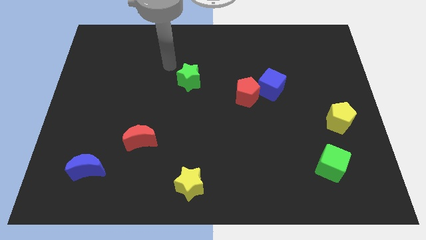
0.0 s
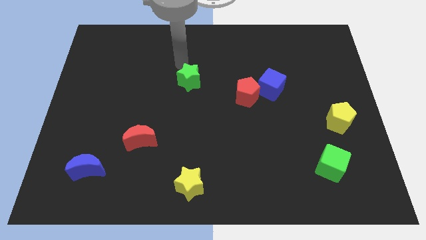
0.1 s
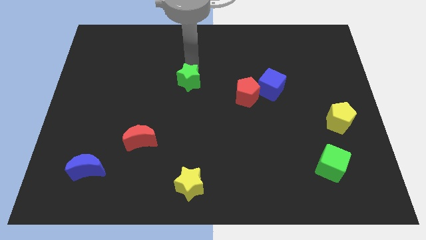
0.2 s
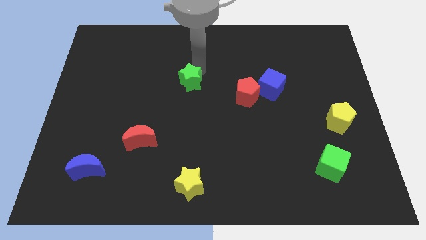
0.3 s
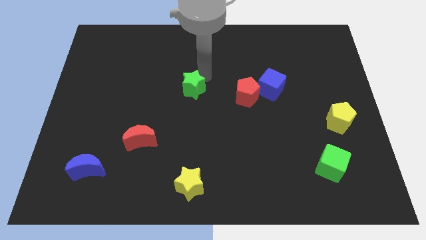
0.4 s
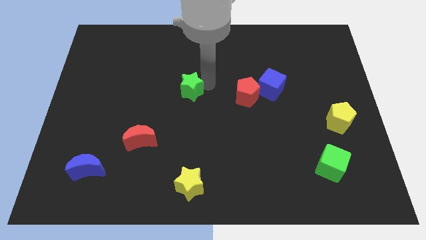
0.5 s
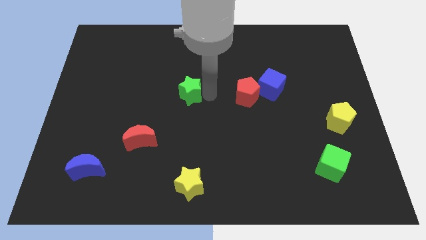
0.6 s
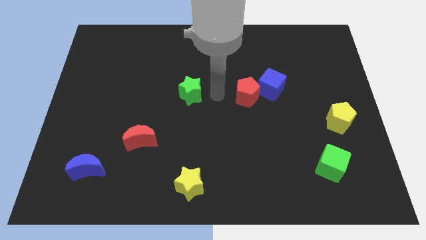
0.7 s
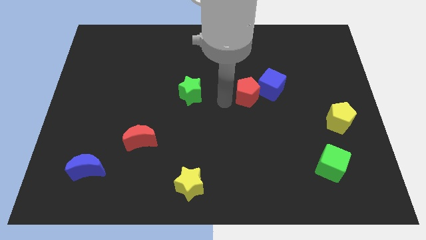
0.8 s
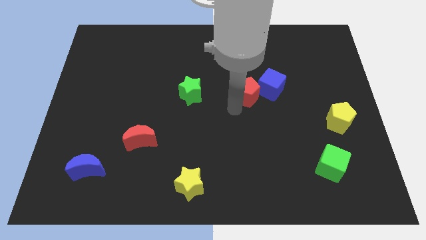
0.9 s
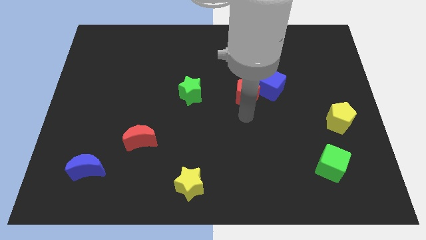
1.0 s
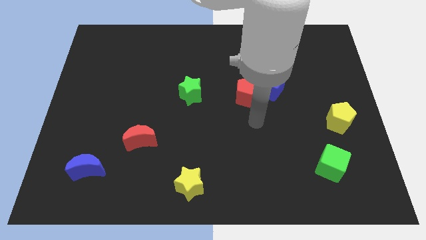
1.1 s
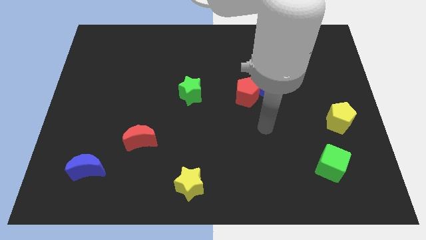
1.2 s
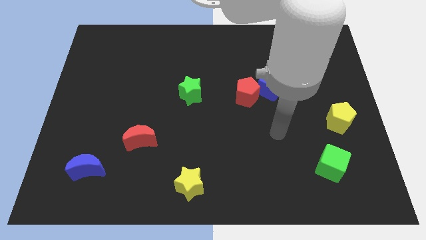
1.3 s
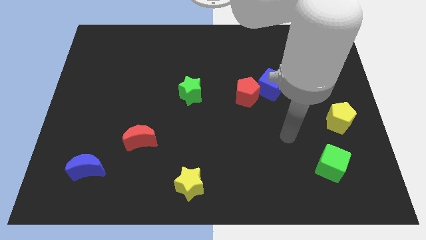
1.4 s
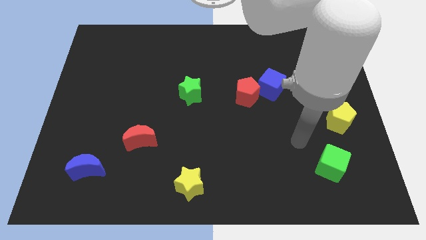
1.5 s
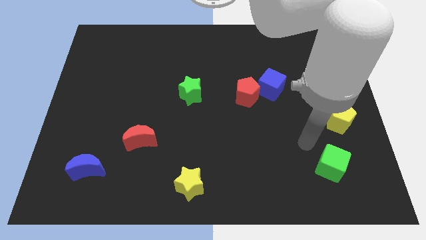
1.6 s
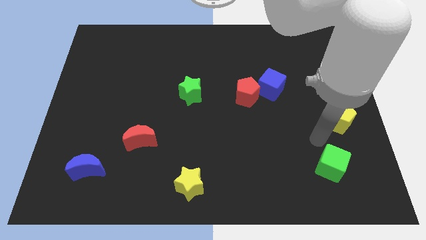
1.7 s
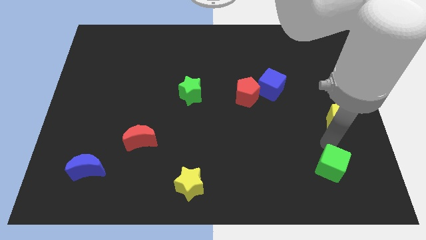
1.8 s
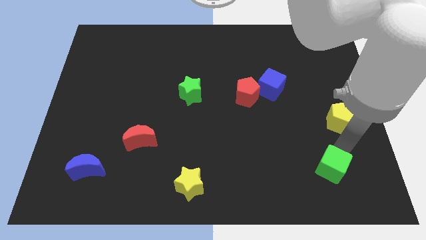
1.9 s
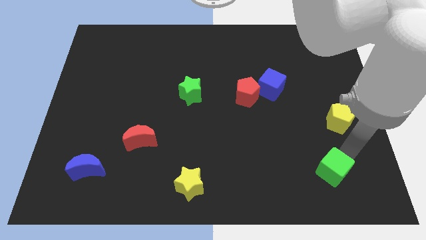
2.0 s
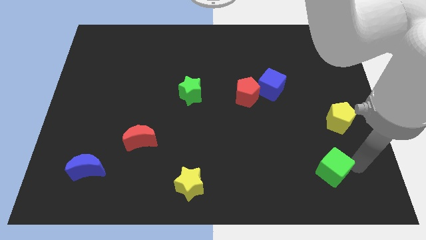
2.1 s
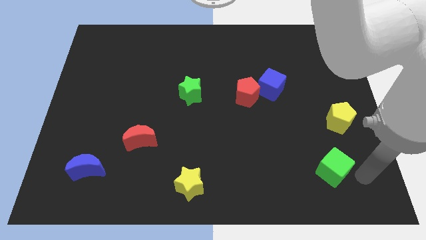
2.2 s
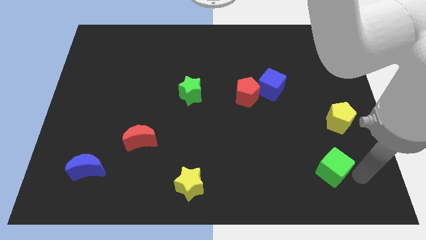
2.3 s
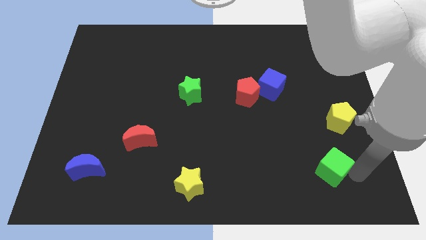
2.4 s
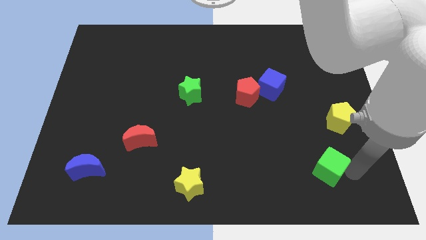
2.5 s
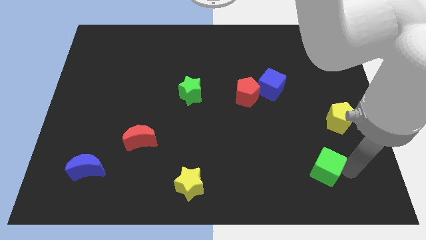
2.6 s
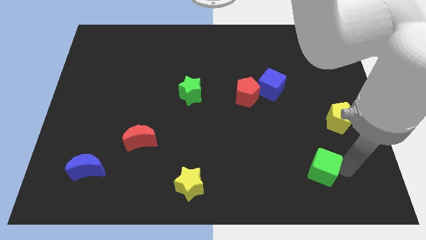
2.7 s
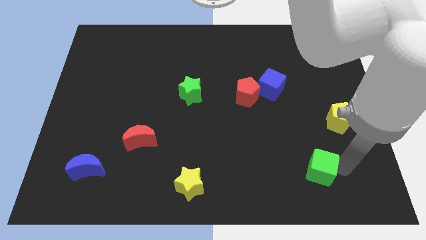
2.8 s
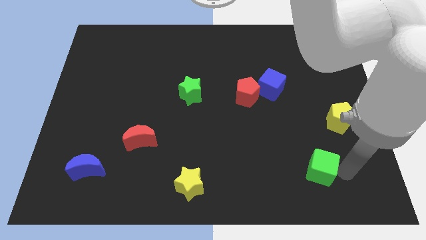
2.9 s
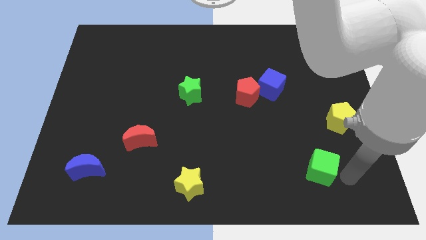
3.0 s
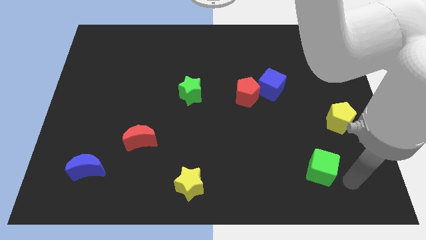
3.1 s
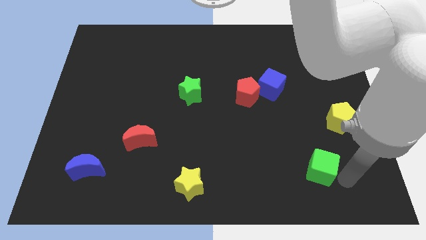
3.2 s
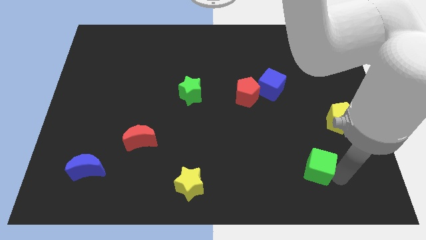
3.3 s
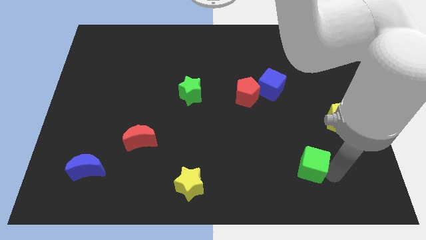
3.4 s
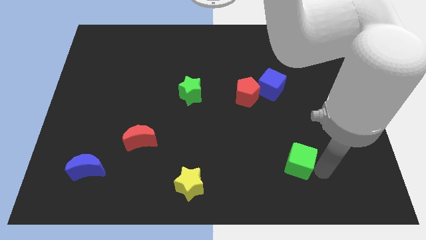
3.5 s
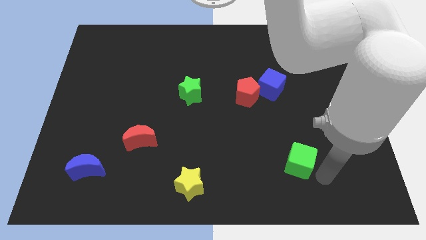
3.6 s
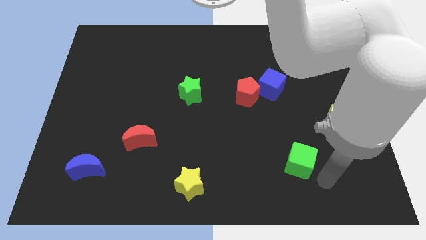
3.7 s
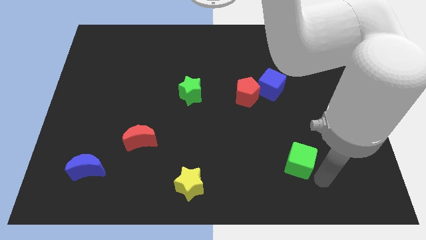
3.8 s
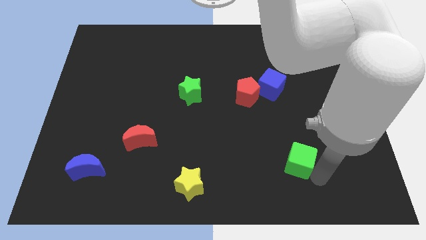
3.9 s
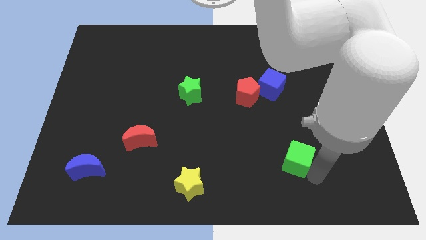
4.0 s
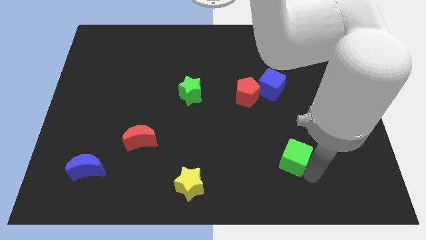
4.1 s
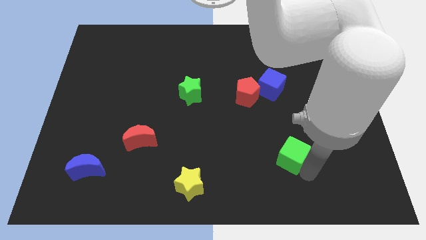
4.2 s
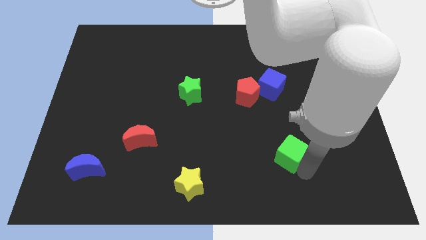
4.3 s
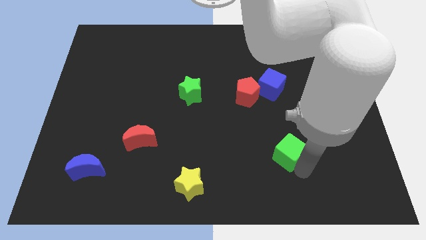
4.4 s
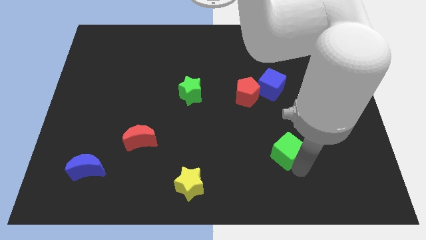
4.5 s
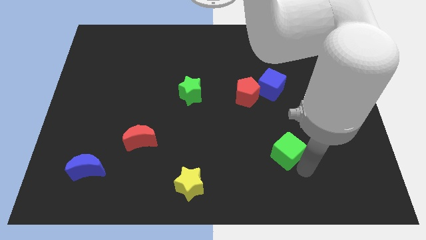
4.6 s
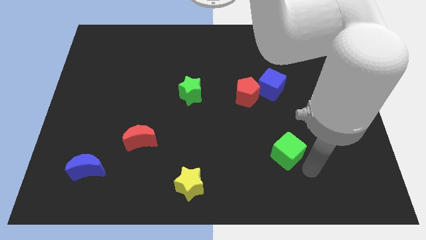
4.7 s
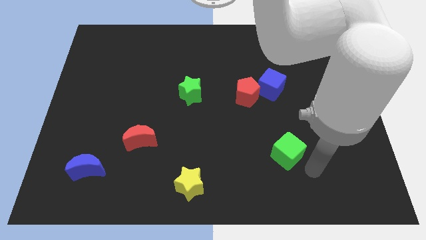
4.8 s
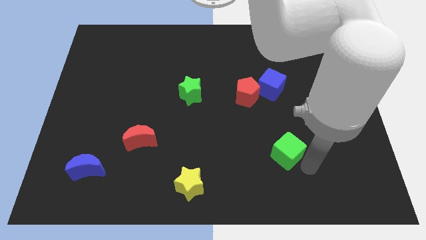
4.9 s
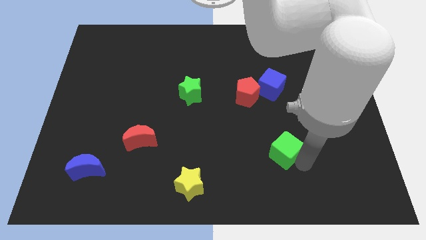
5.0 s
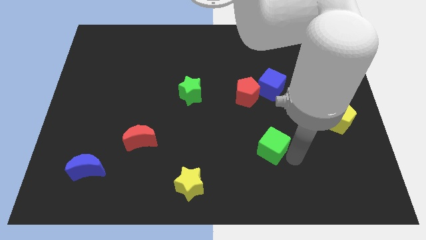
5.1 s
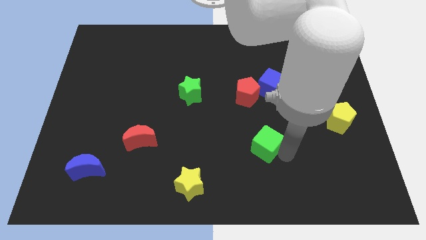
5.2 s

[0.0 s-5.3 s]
move the green cube to the bottom of the red pentagon

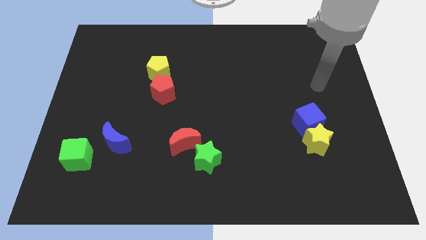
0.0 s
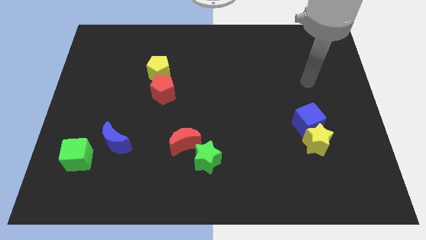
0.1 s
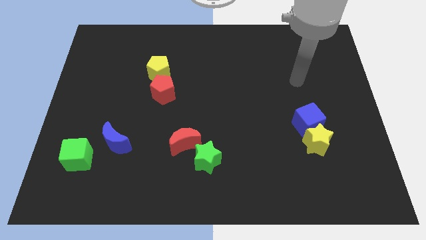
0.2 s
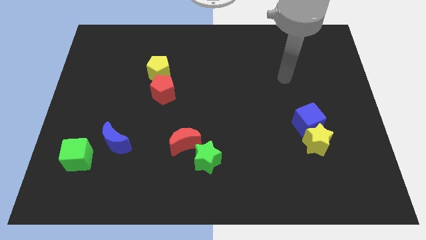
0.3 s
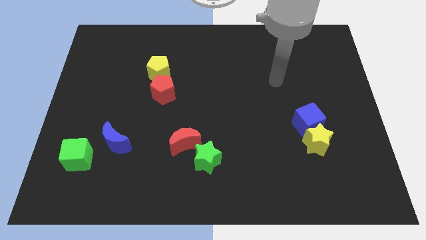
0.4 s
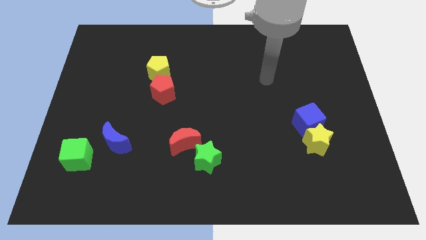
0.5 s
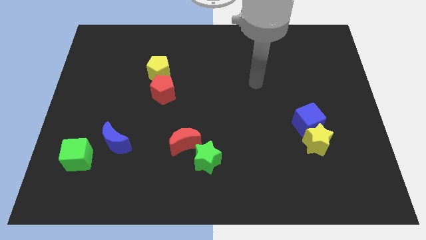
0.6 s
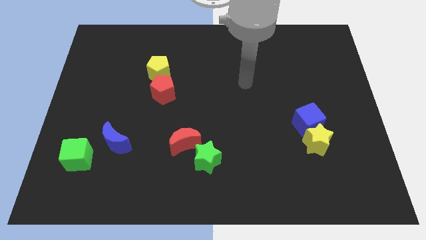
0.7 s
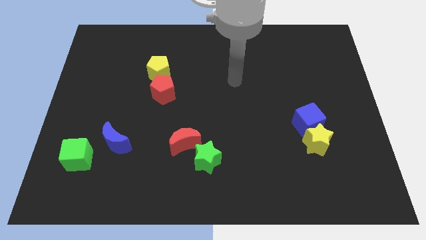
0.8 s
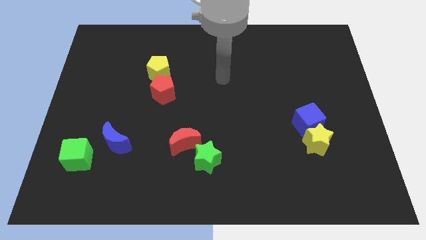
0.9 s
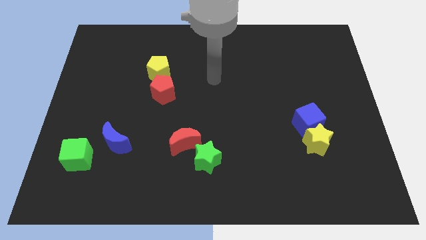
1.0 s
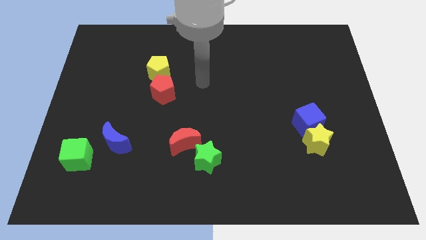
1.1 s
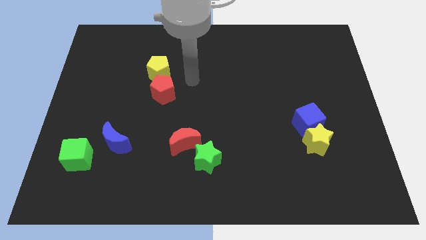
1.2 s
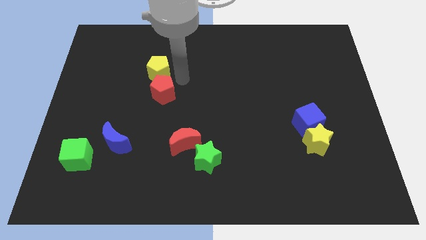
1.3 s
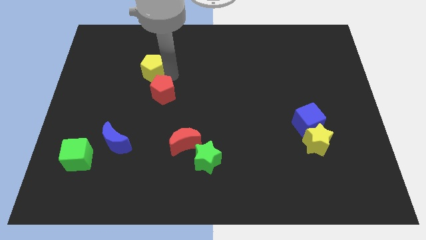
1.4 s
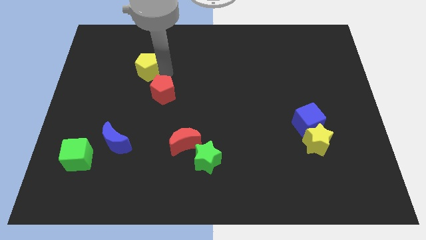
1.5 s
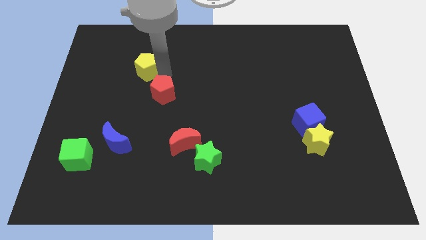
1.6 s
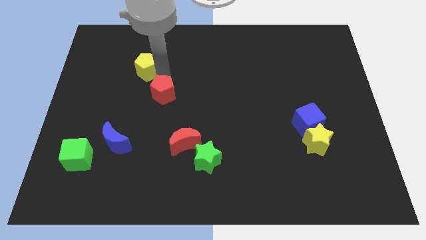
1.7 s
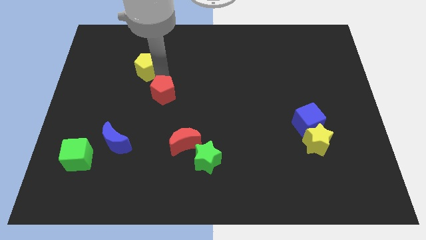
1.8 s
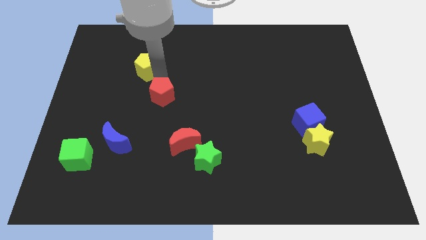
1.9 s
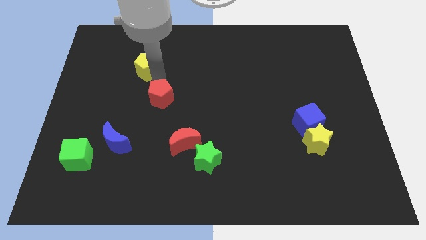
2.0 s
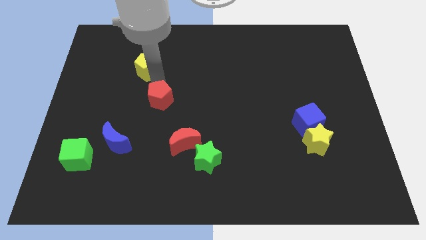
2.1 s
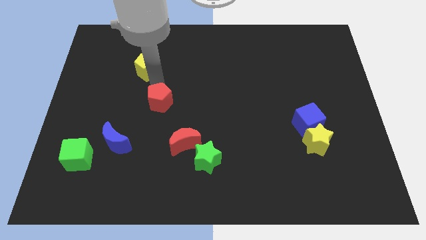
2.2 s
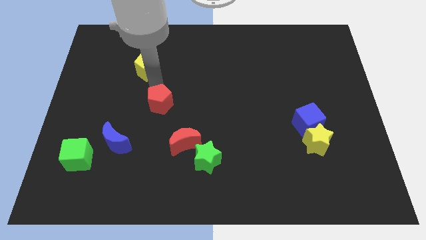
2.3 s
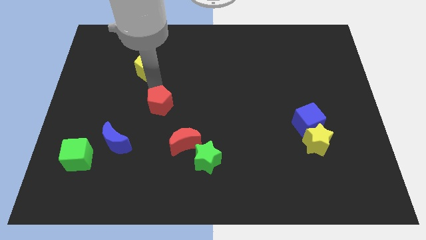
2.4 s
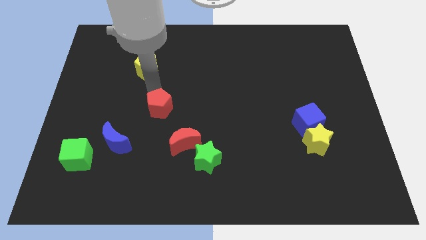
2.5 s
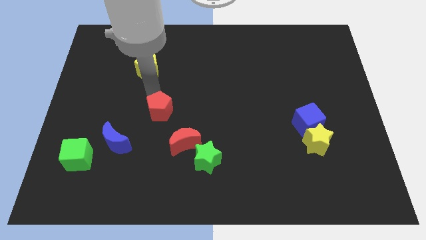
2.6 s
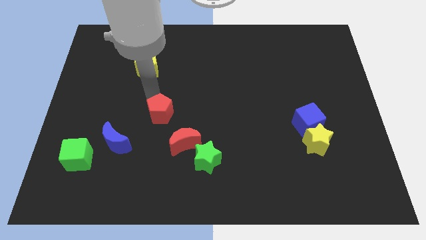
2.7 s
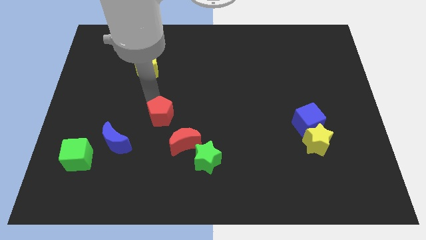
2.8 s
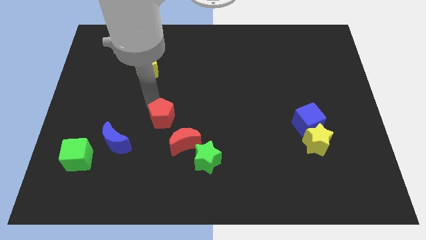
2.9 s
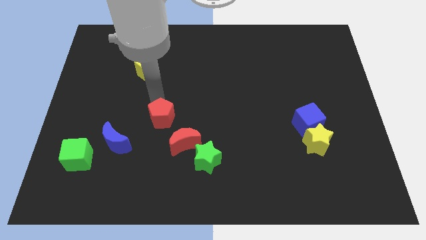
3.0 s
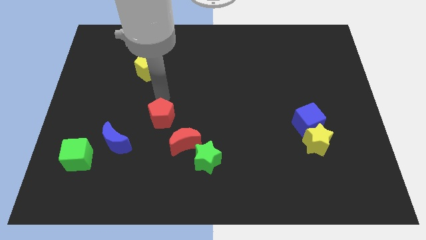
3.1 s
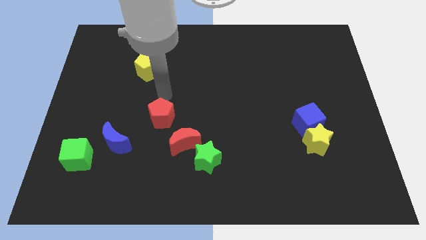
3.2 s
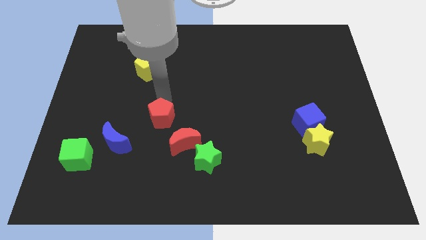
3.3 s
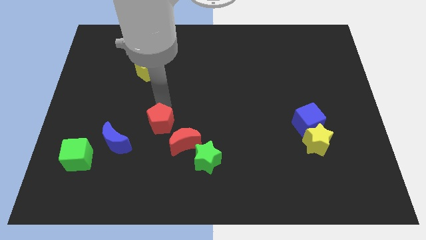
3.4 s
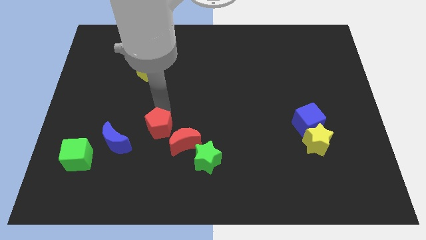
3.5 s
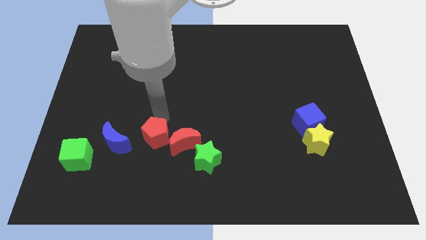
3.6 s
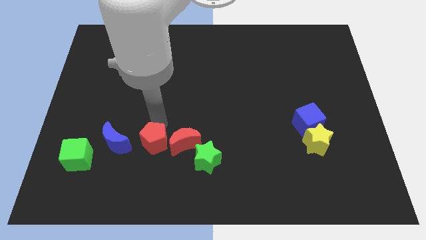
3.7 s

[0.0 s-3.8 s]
slide the red pentagon to the left side of the green star
